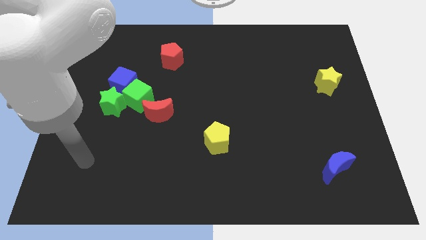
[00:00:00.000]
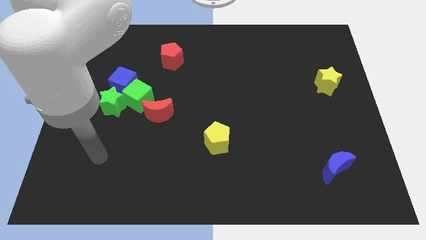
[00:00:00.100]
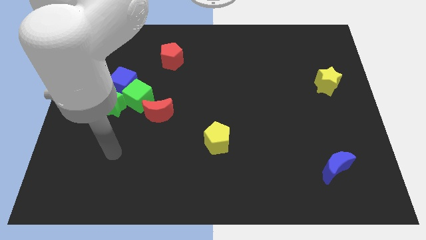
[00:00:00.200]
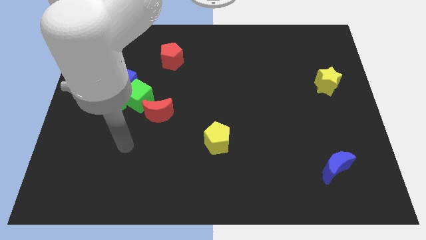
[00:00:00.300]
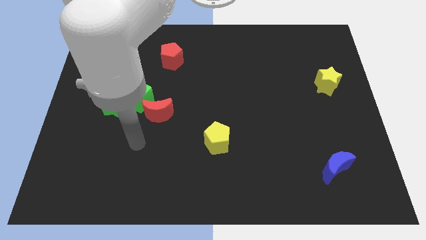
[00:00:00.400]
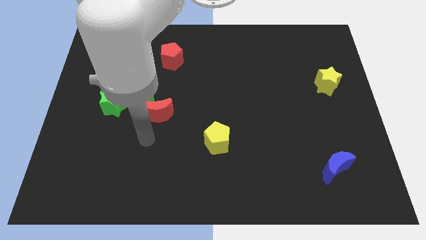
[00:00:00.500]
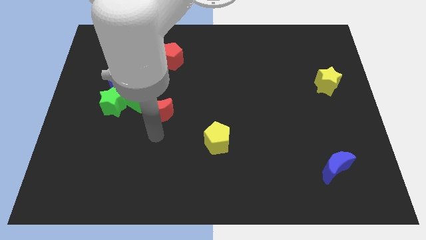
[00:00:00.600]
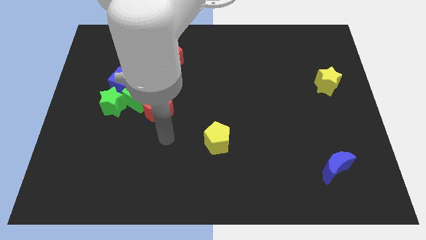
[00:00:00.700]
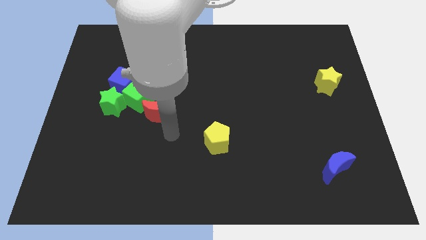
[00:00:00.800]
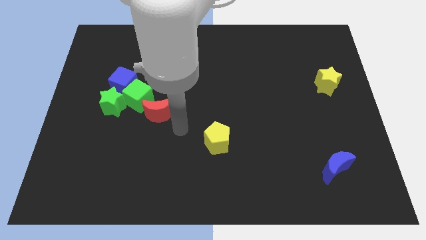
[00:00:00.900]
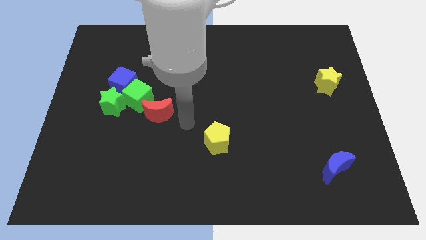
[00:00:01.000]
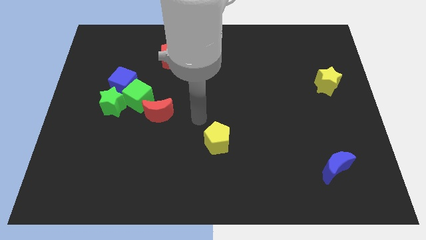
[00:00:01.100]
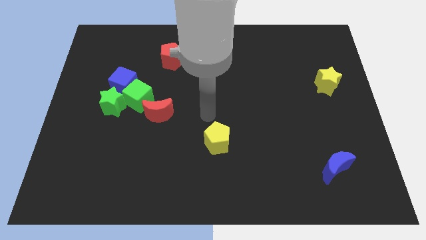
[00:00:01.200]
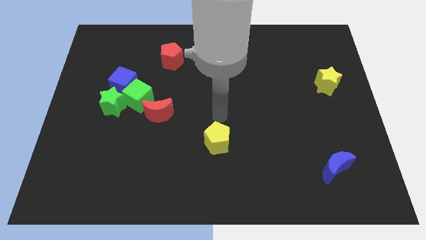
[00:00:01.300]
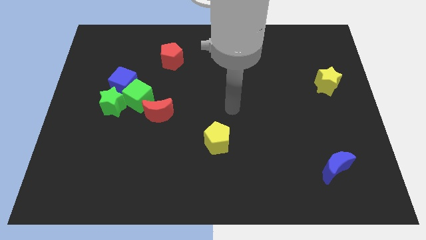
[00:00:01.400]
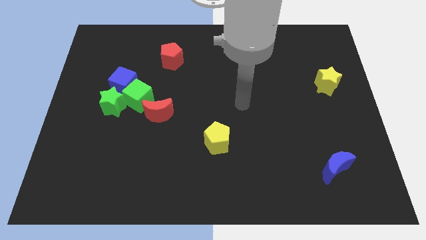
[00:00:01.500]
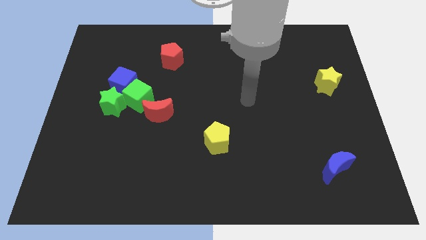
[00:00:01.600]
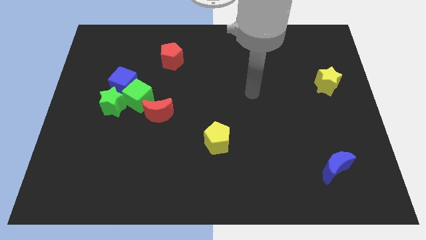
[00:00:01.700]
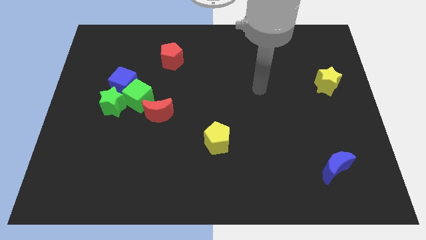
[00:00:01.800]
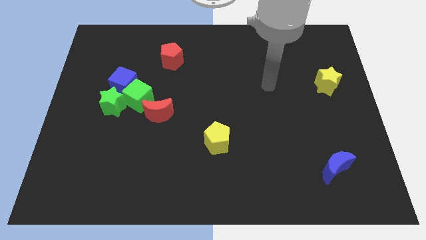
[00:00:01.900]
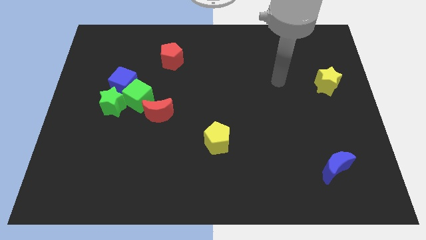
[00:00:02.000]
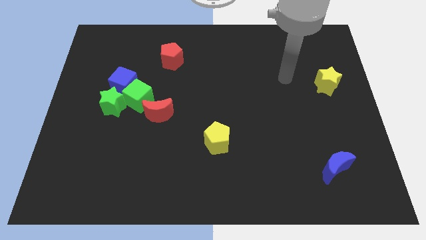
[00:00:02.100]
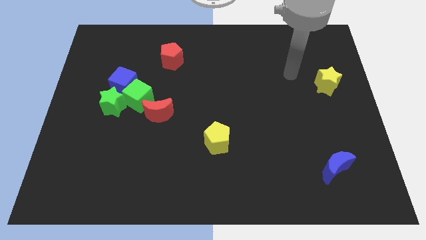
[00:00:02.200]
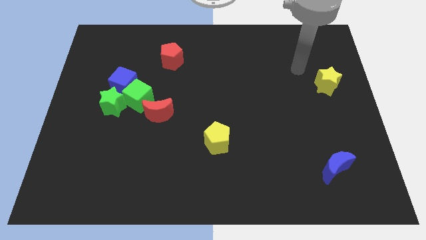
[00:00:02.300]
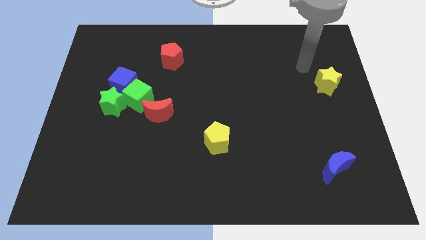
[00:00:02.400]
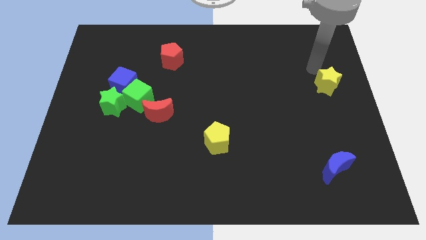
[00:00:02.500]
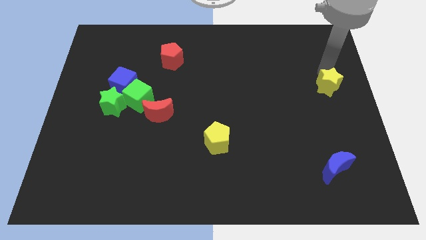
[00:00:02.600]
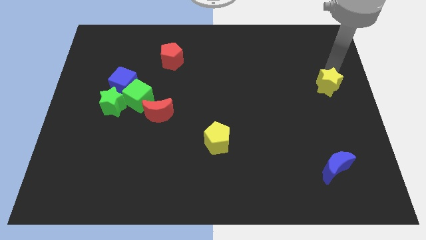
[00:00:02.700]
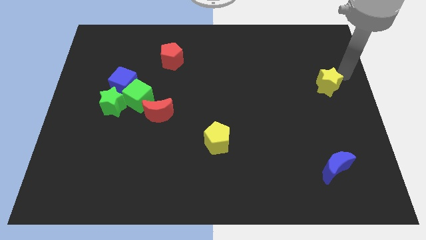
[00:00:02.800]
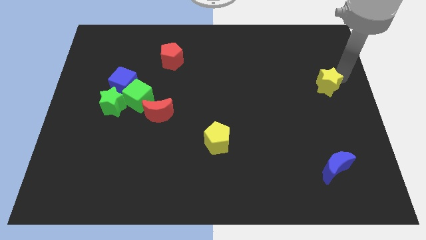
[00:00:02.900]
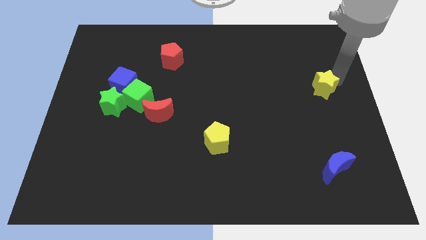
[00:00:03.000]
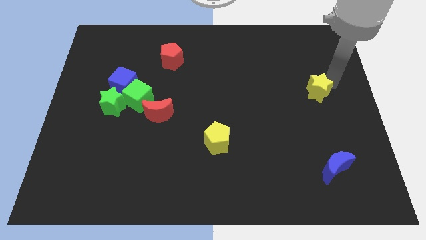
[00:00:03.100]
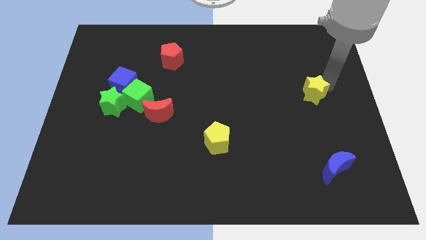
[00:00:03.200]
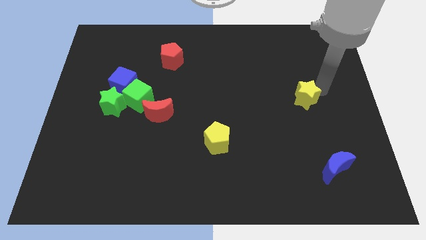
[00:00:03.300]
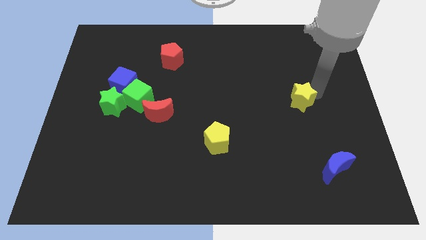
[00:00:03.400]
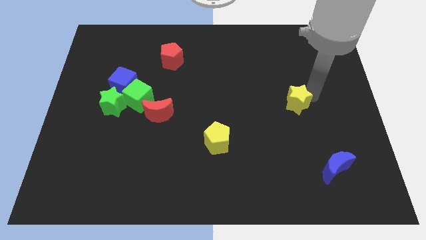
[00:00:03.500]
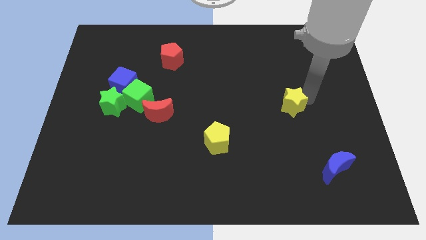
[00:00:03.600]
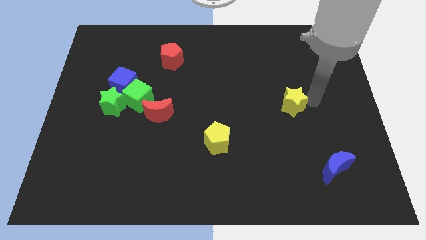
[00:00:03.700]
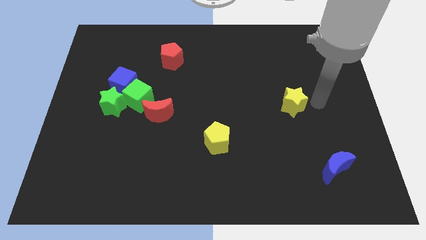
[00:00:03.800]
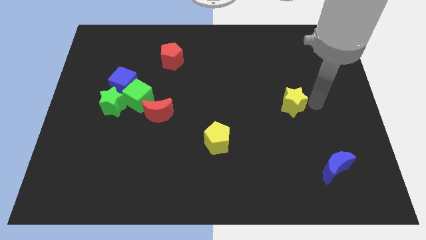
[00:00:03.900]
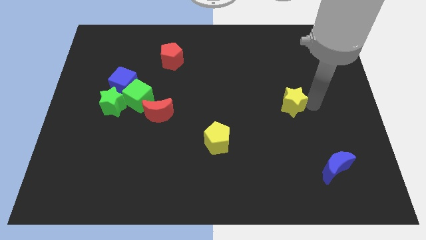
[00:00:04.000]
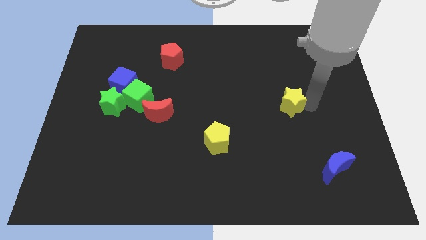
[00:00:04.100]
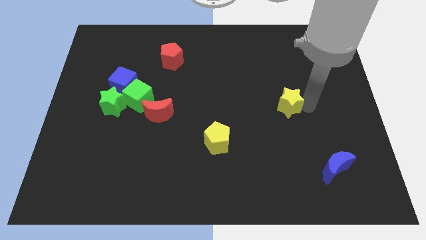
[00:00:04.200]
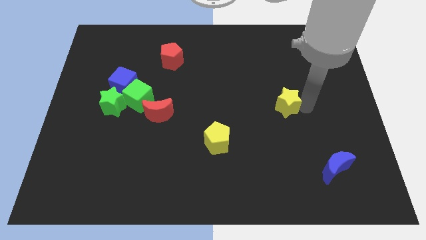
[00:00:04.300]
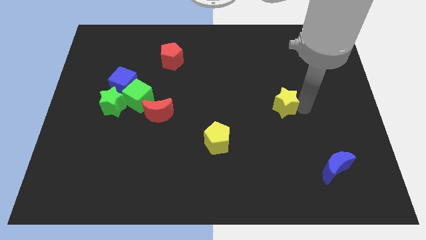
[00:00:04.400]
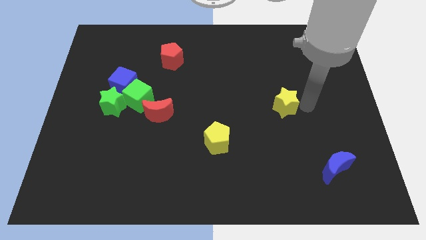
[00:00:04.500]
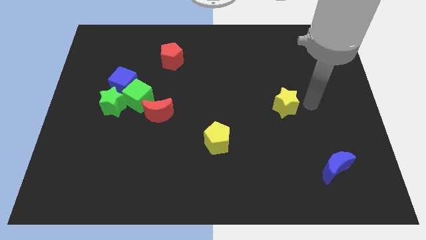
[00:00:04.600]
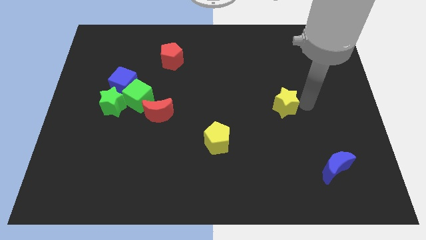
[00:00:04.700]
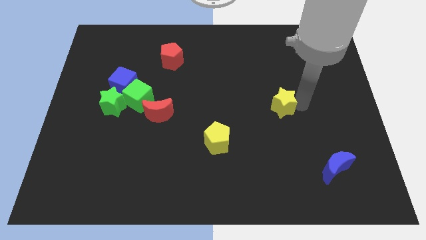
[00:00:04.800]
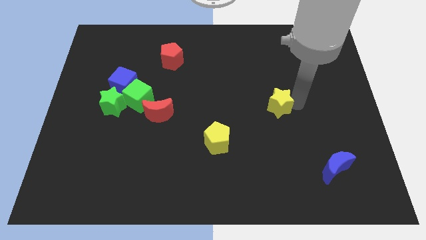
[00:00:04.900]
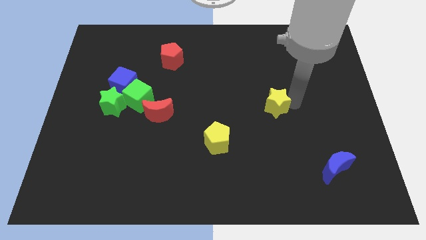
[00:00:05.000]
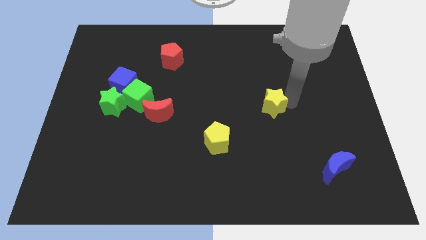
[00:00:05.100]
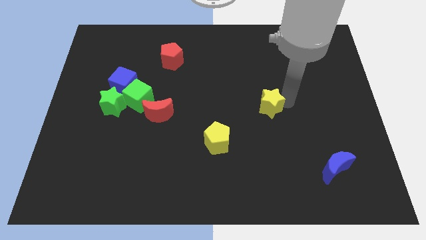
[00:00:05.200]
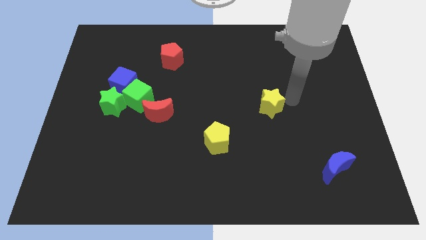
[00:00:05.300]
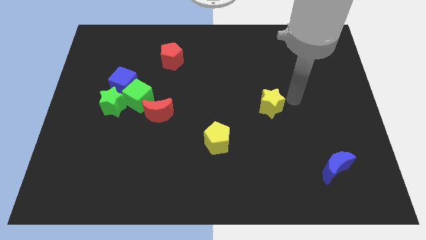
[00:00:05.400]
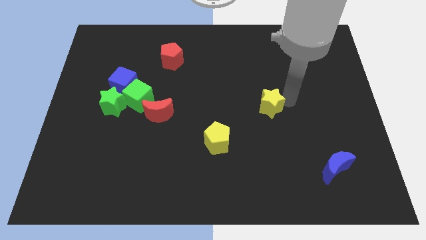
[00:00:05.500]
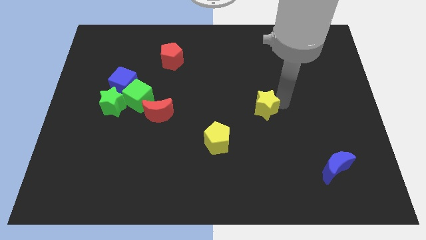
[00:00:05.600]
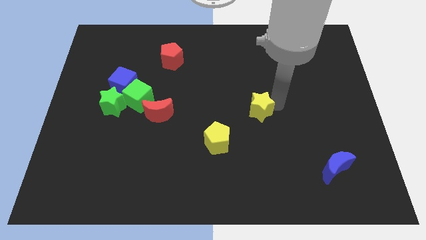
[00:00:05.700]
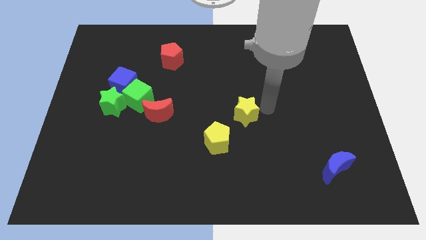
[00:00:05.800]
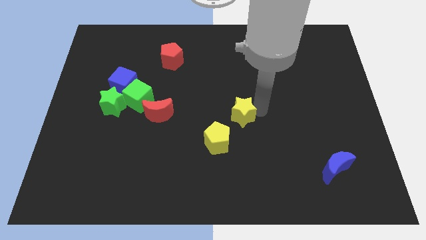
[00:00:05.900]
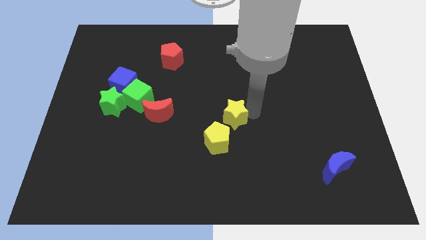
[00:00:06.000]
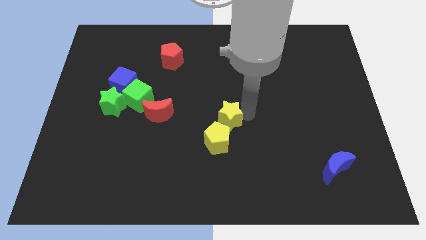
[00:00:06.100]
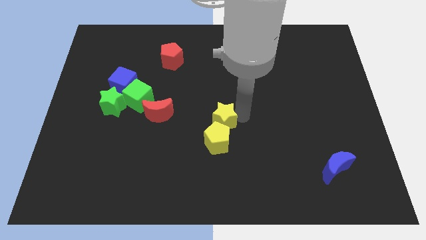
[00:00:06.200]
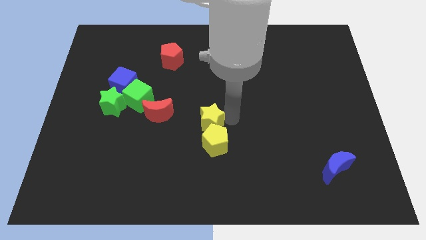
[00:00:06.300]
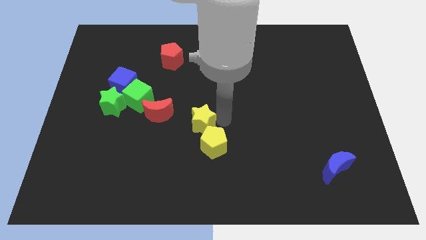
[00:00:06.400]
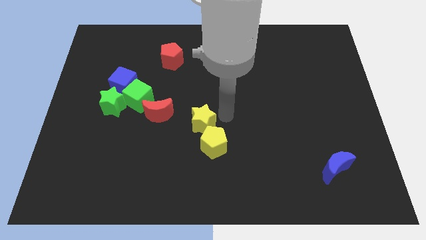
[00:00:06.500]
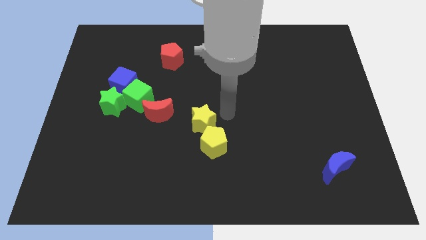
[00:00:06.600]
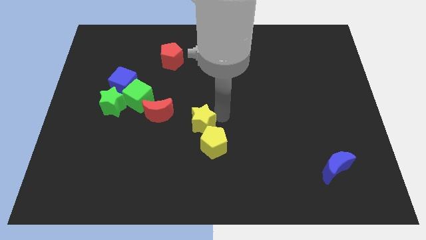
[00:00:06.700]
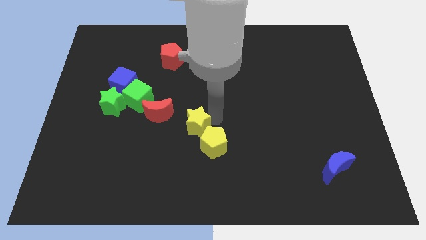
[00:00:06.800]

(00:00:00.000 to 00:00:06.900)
slide the yellow star to the bottom right of the red moon
